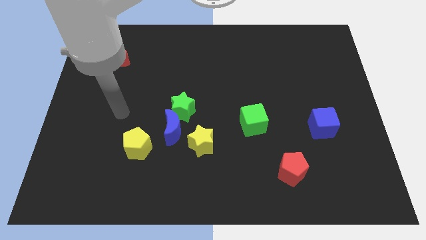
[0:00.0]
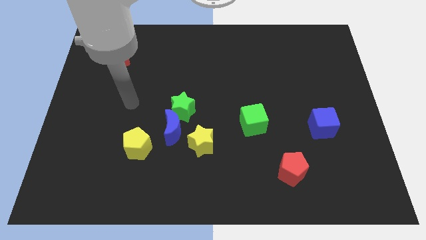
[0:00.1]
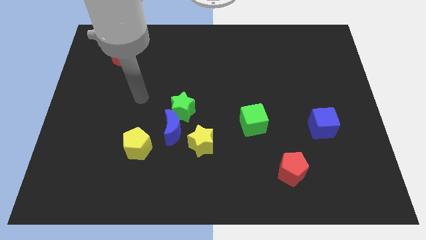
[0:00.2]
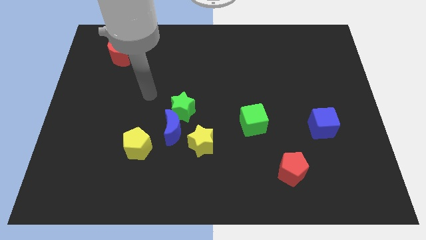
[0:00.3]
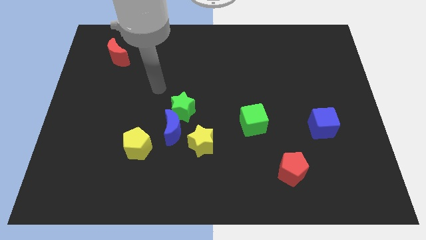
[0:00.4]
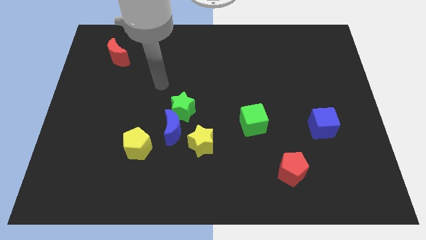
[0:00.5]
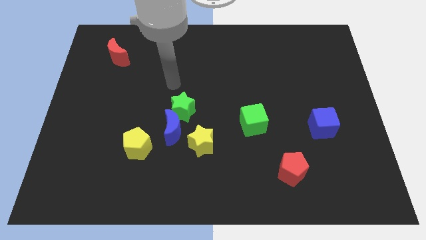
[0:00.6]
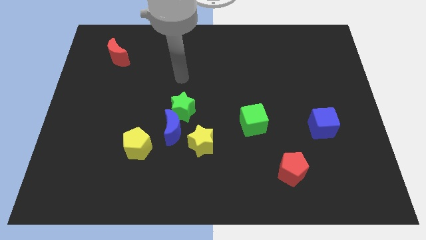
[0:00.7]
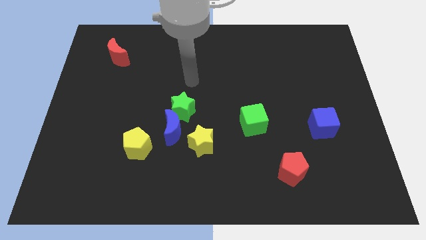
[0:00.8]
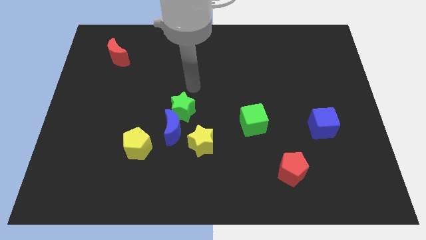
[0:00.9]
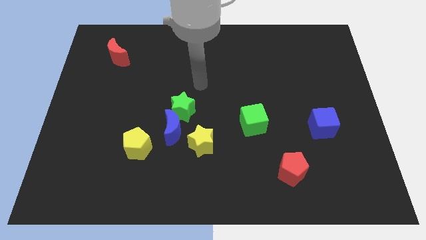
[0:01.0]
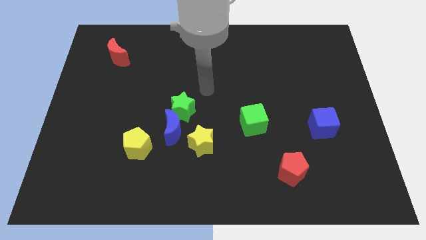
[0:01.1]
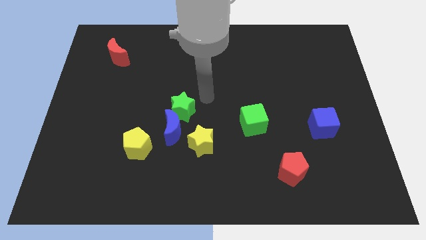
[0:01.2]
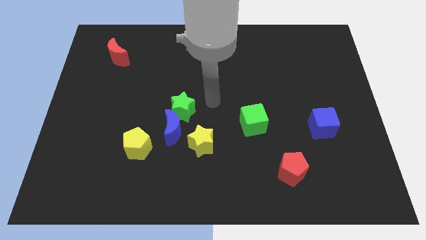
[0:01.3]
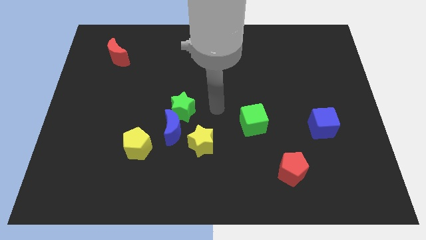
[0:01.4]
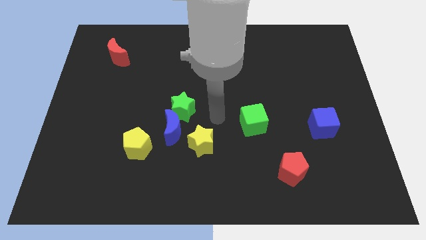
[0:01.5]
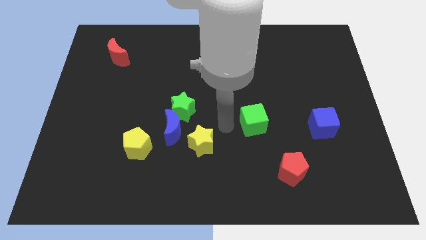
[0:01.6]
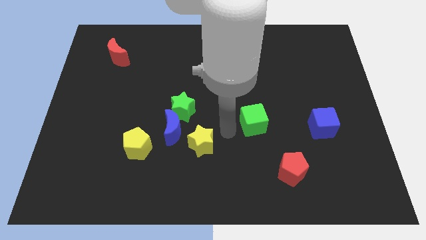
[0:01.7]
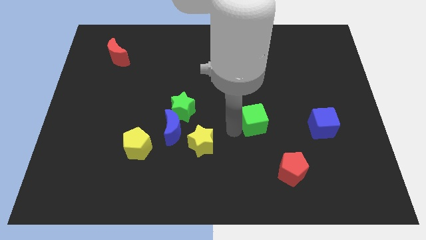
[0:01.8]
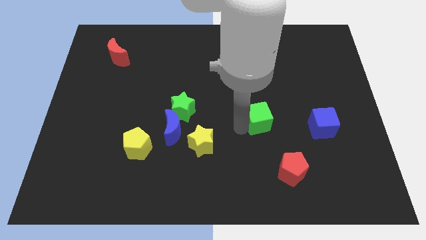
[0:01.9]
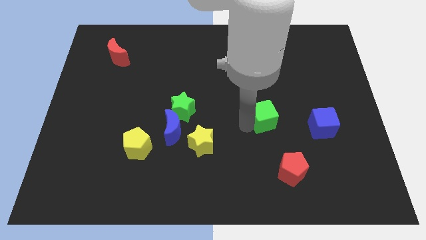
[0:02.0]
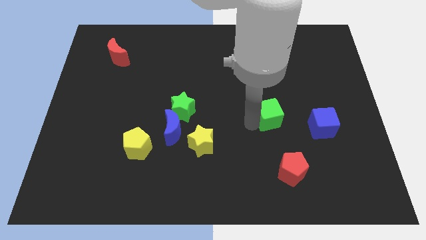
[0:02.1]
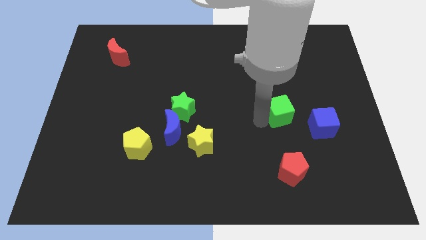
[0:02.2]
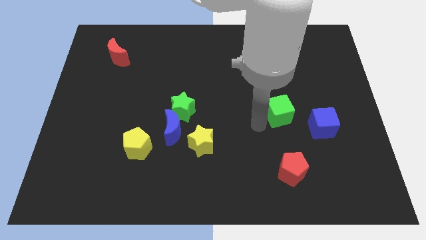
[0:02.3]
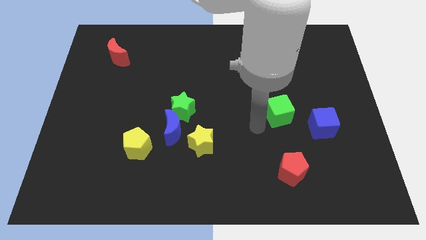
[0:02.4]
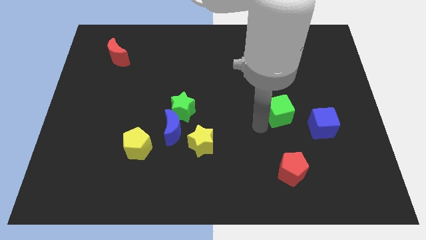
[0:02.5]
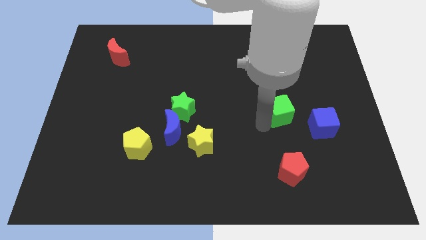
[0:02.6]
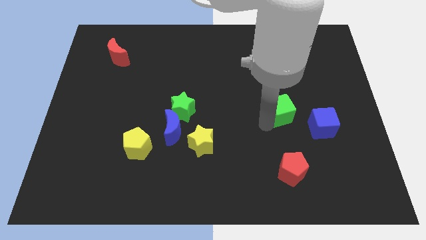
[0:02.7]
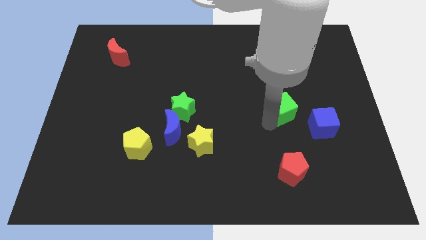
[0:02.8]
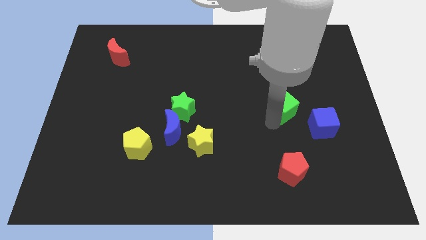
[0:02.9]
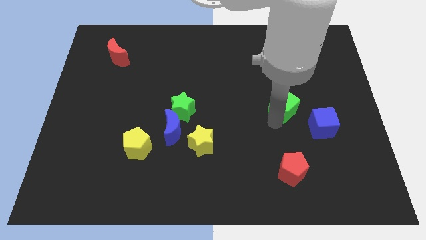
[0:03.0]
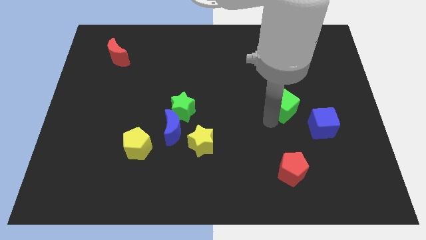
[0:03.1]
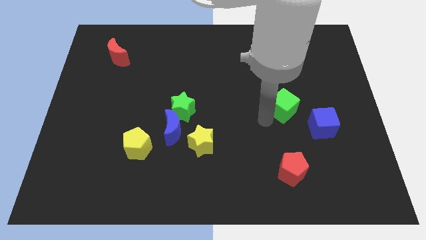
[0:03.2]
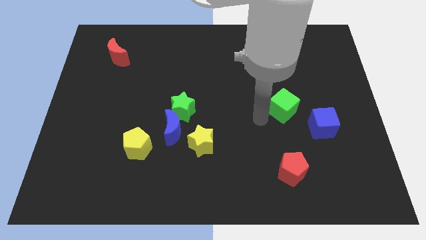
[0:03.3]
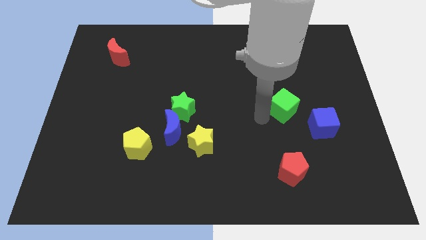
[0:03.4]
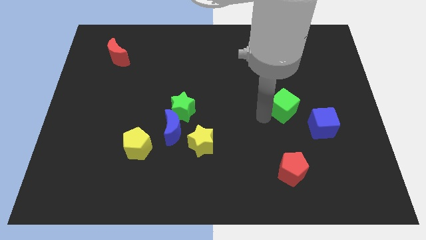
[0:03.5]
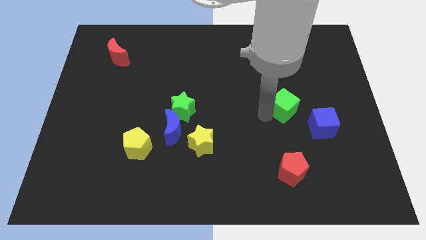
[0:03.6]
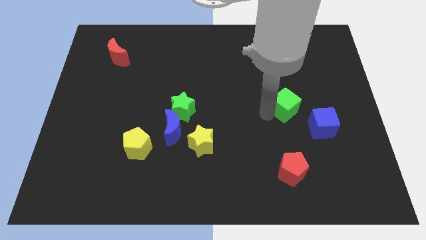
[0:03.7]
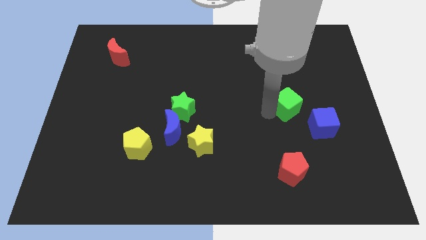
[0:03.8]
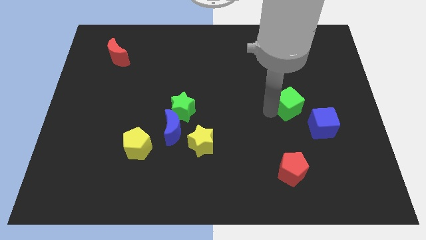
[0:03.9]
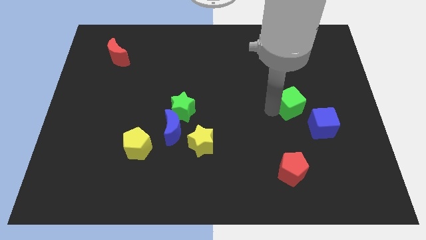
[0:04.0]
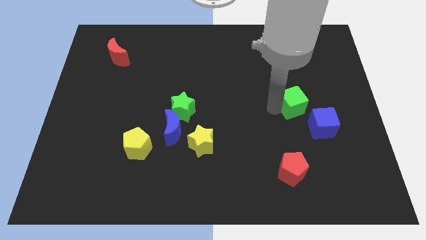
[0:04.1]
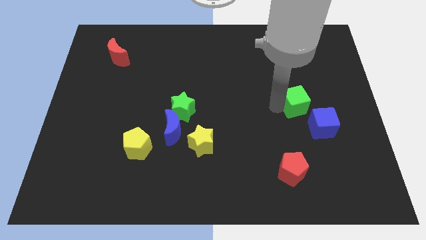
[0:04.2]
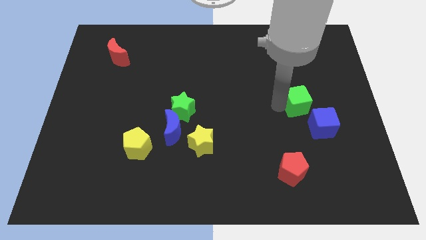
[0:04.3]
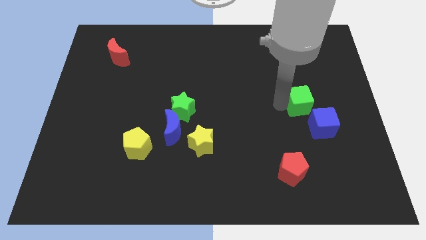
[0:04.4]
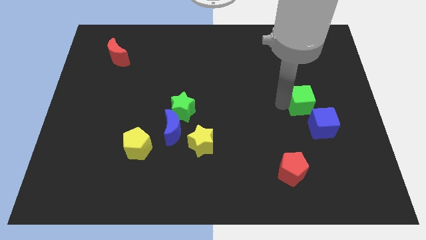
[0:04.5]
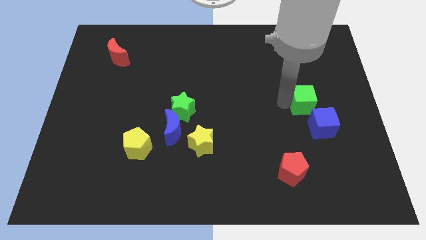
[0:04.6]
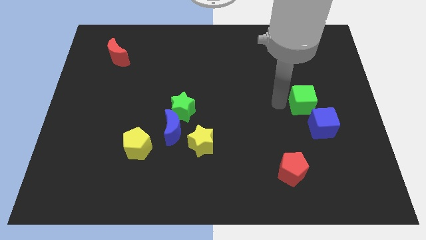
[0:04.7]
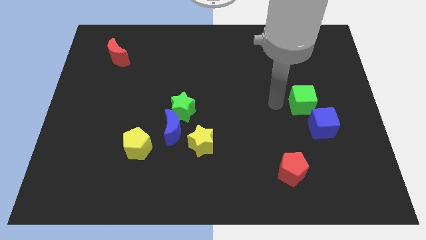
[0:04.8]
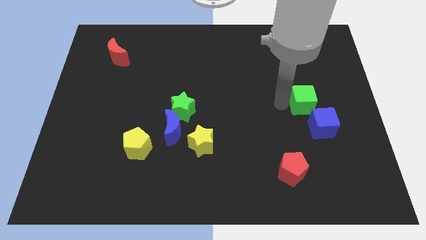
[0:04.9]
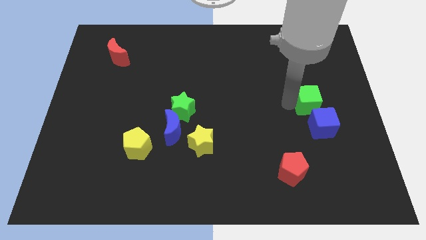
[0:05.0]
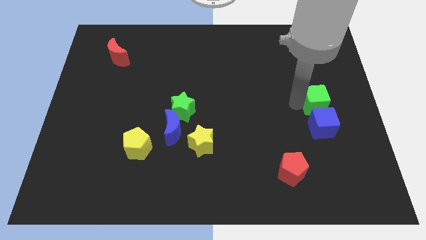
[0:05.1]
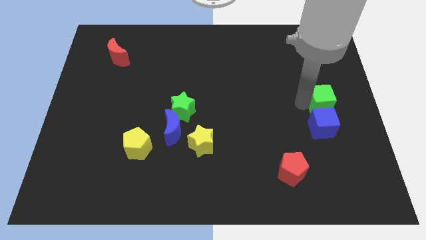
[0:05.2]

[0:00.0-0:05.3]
push the green cube to the right side of the board
